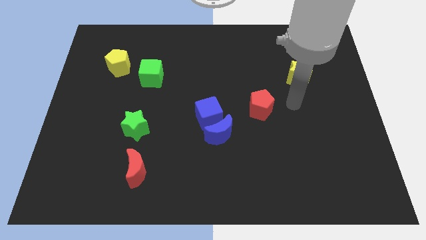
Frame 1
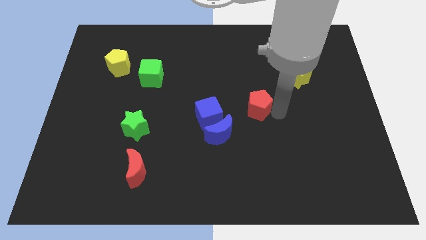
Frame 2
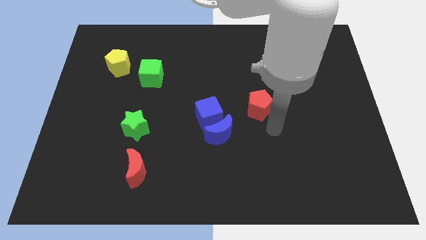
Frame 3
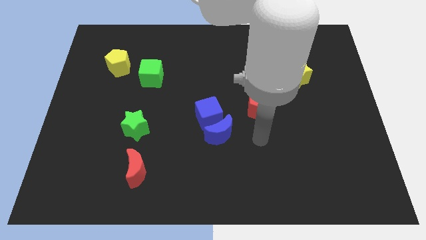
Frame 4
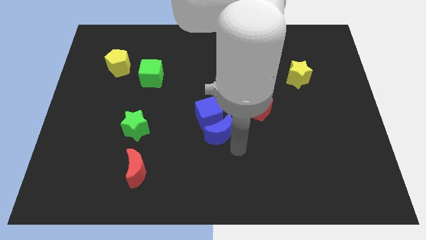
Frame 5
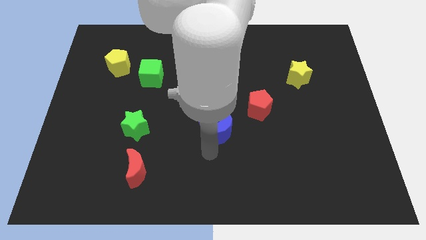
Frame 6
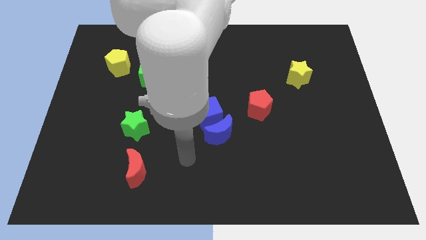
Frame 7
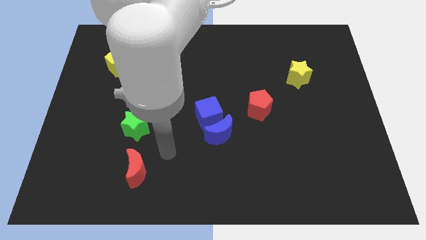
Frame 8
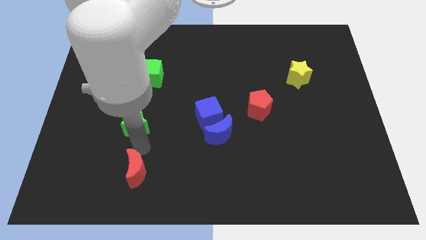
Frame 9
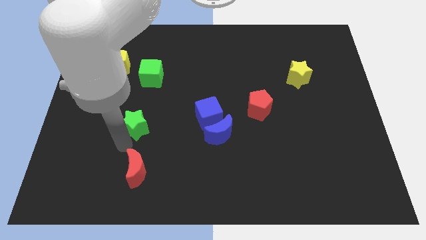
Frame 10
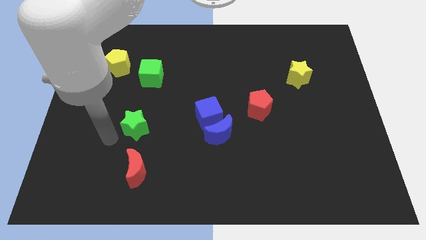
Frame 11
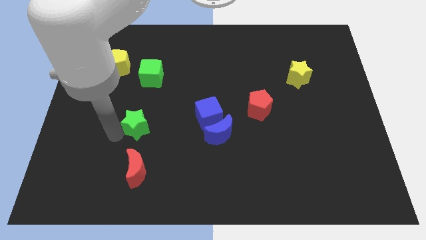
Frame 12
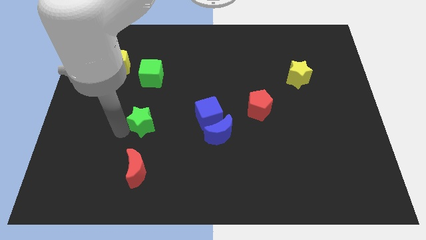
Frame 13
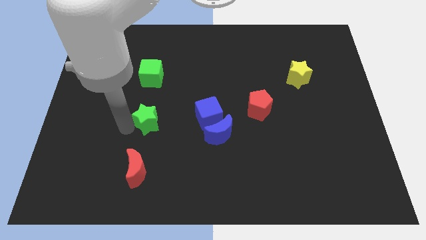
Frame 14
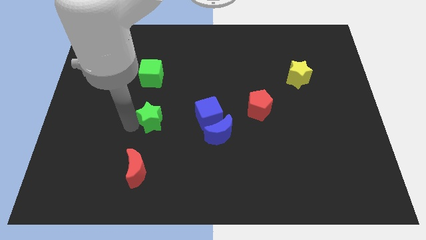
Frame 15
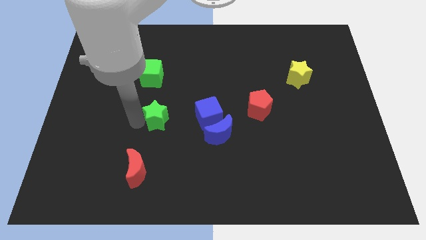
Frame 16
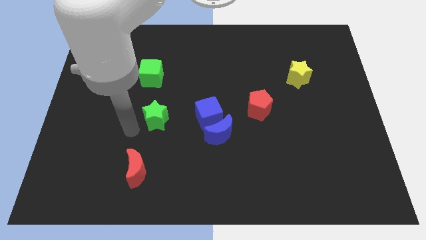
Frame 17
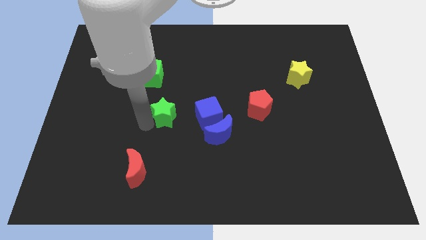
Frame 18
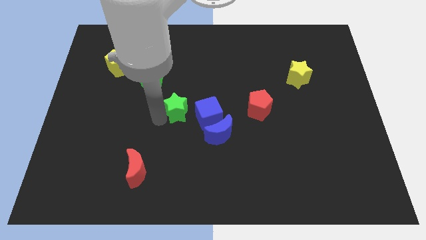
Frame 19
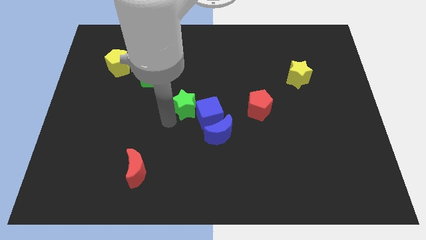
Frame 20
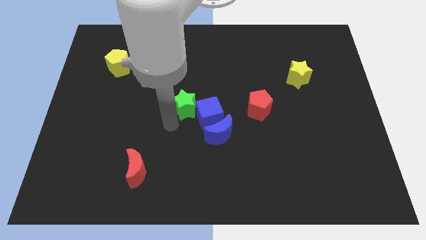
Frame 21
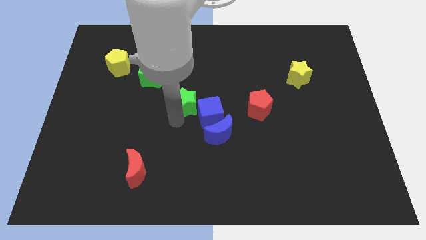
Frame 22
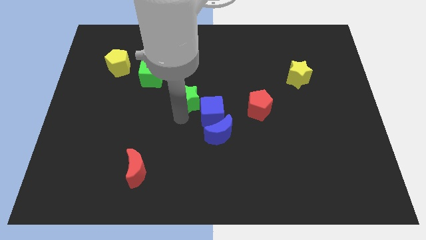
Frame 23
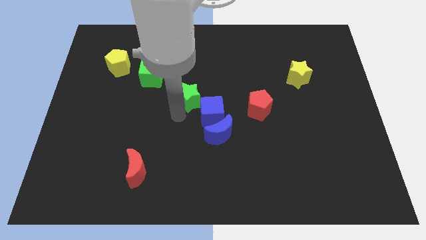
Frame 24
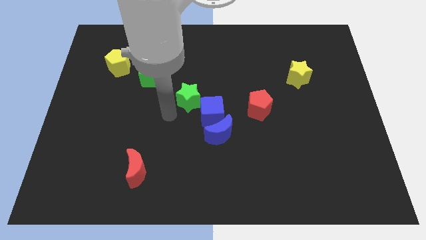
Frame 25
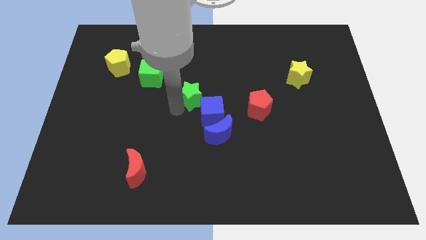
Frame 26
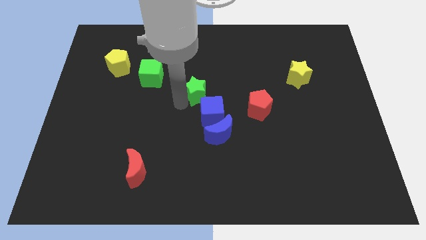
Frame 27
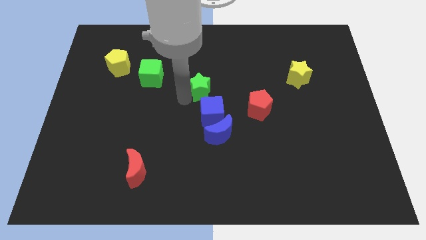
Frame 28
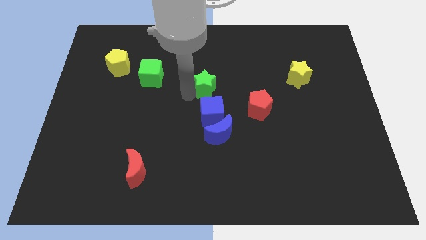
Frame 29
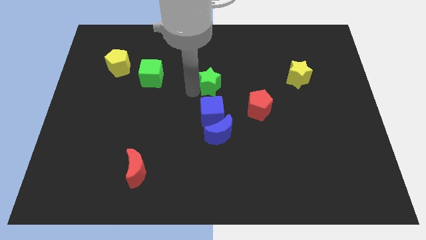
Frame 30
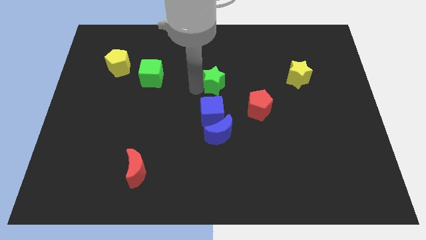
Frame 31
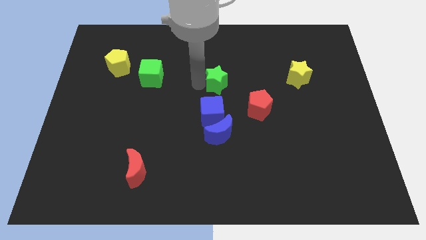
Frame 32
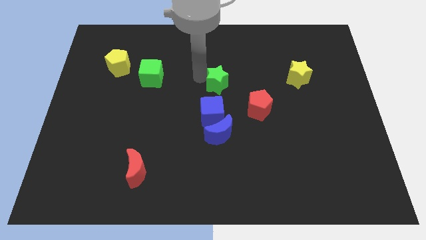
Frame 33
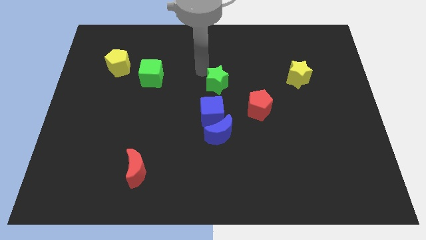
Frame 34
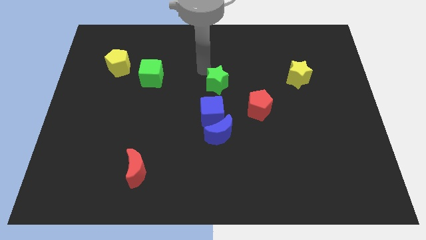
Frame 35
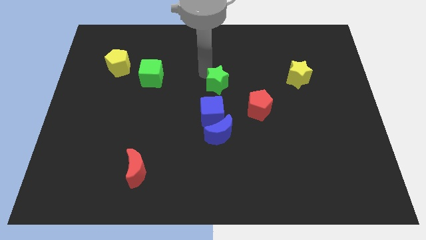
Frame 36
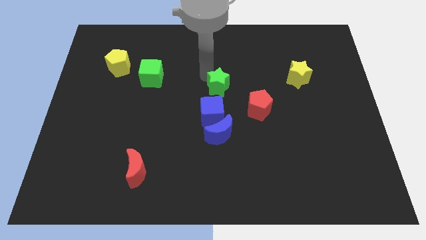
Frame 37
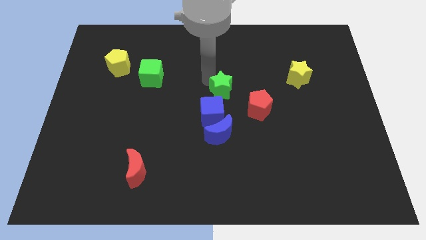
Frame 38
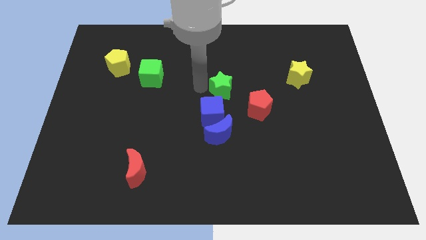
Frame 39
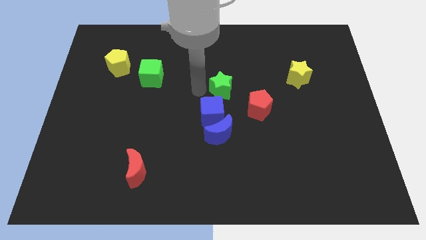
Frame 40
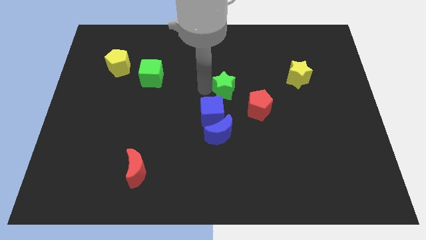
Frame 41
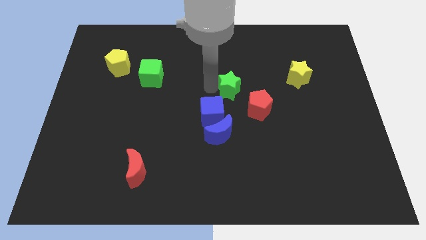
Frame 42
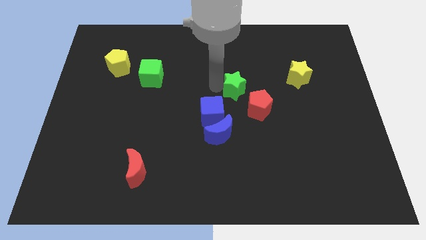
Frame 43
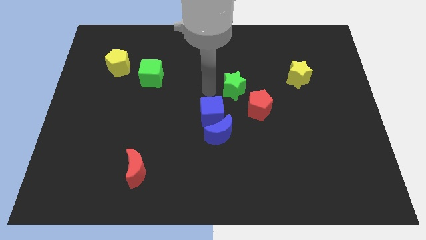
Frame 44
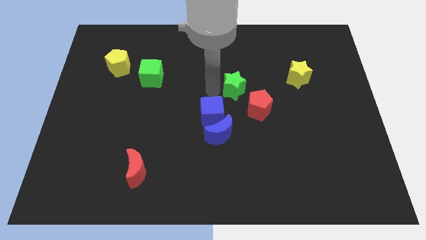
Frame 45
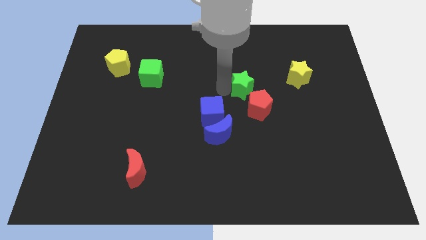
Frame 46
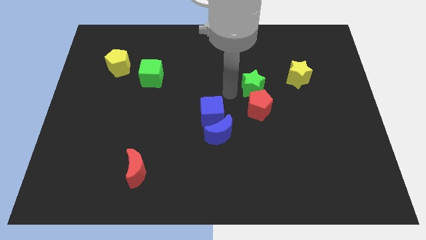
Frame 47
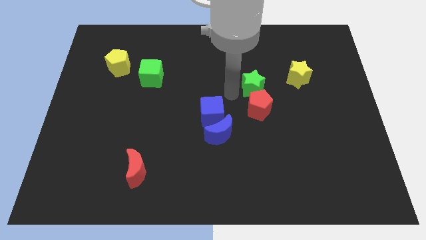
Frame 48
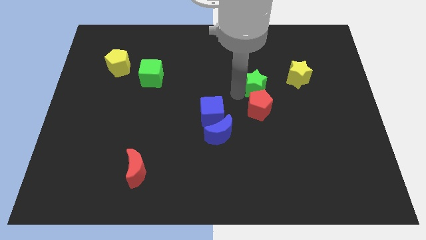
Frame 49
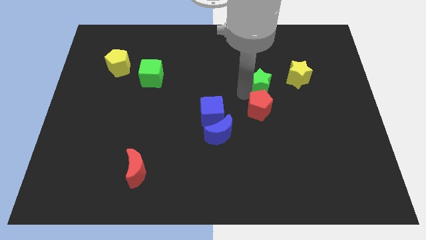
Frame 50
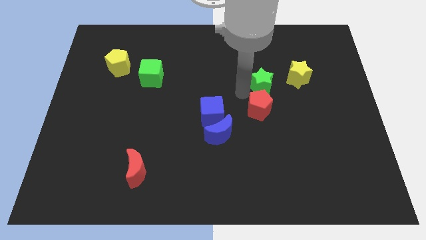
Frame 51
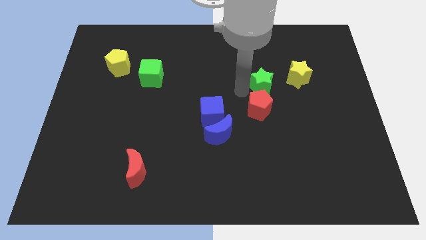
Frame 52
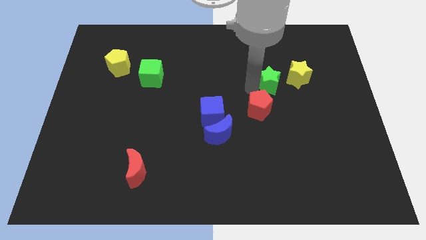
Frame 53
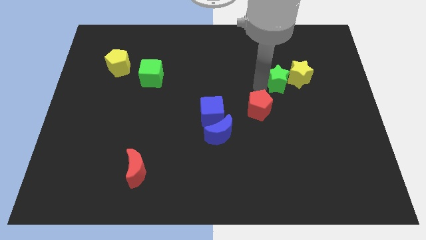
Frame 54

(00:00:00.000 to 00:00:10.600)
push the green star close to the yellow star

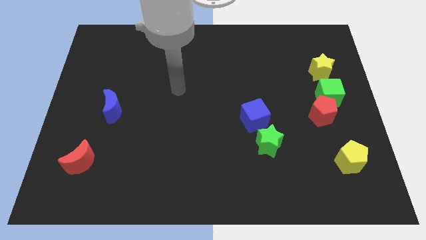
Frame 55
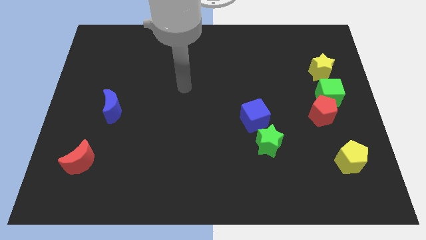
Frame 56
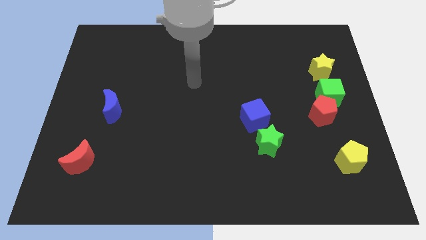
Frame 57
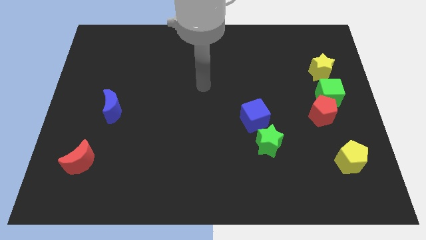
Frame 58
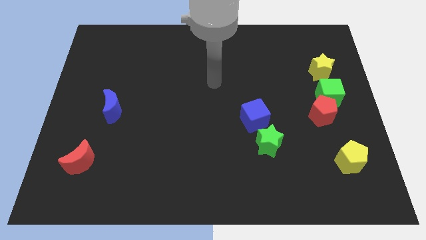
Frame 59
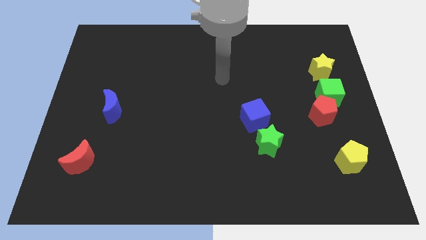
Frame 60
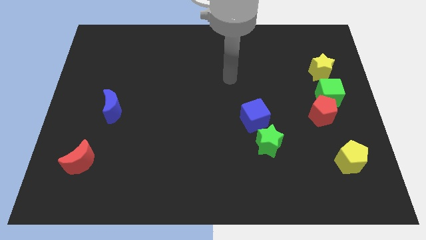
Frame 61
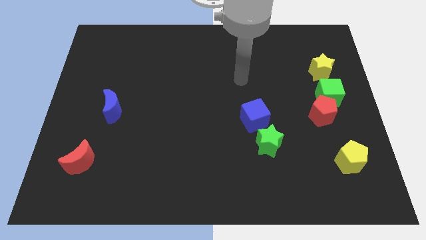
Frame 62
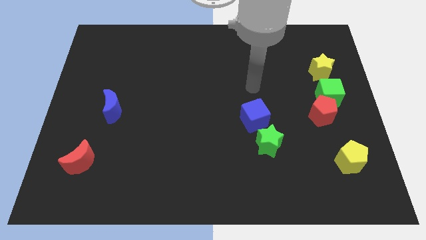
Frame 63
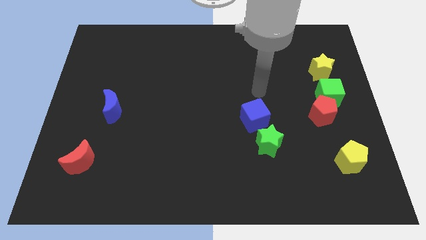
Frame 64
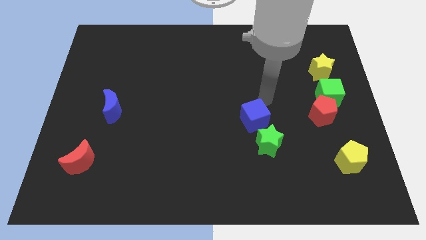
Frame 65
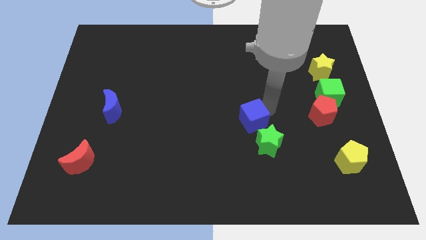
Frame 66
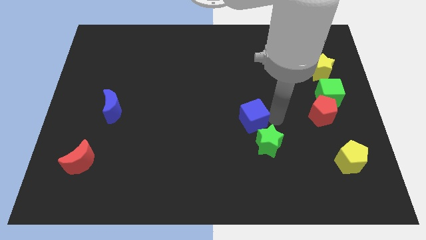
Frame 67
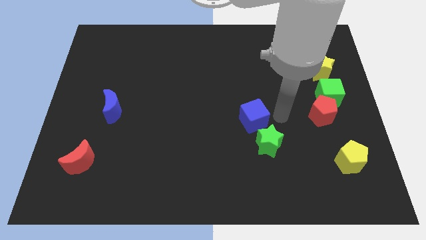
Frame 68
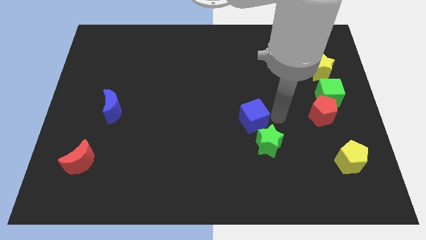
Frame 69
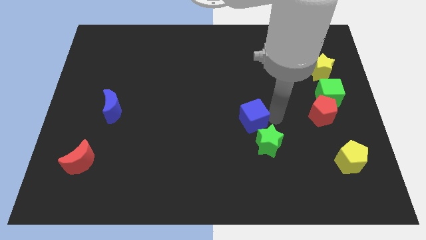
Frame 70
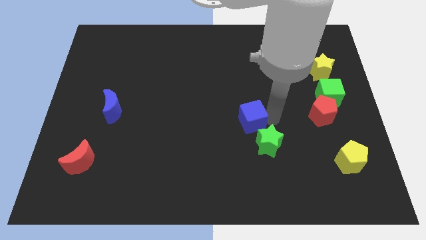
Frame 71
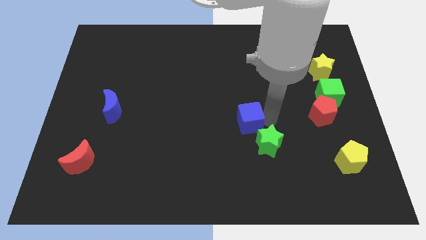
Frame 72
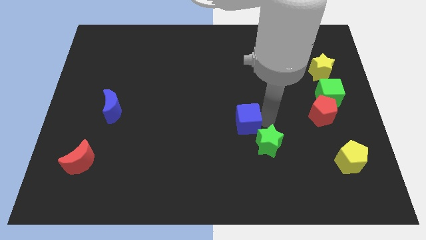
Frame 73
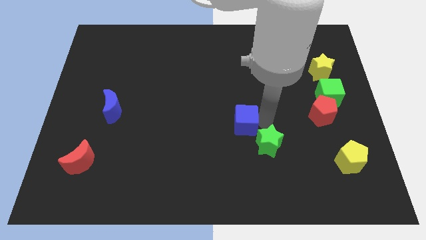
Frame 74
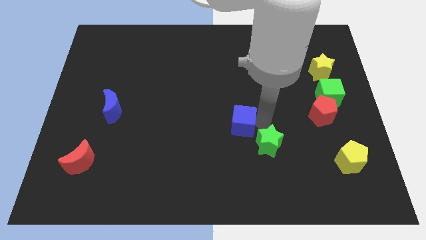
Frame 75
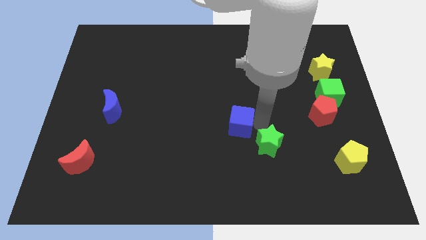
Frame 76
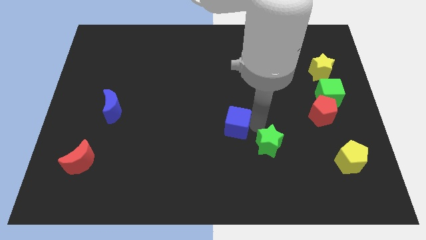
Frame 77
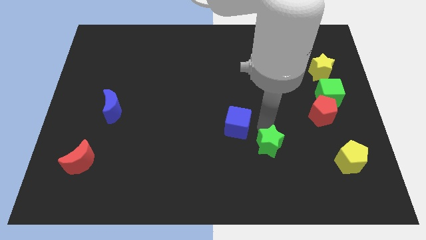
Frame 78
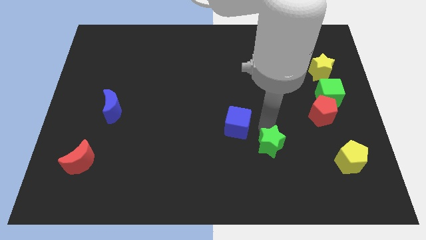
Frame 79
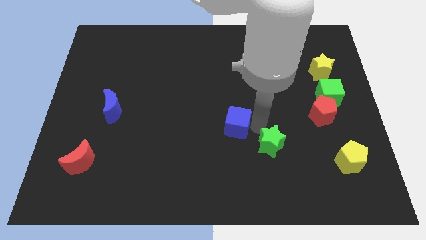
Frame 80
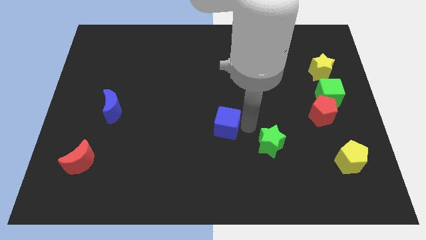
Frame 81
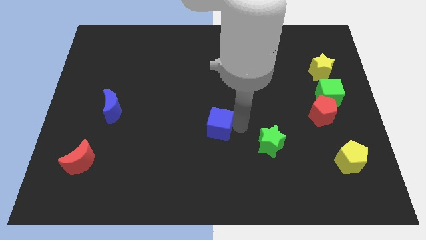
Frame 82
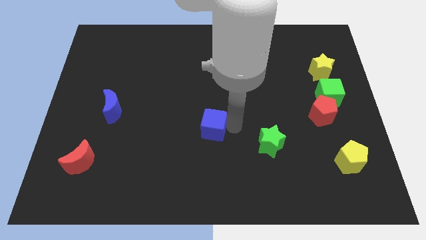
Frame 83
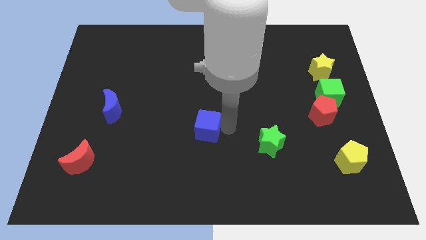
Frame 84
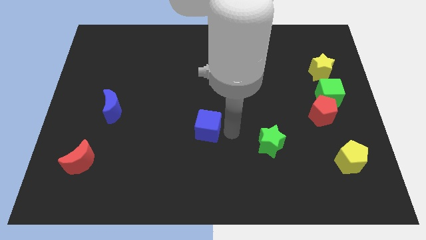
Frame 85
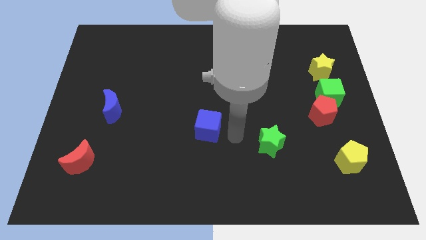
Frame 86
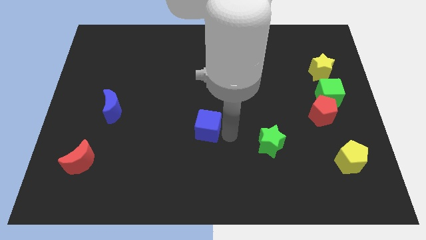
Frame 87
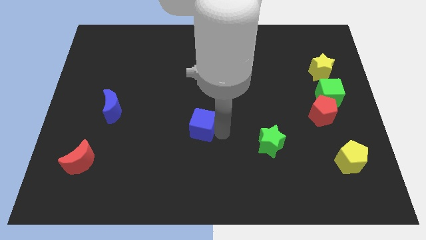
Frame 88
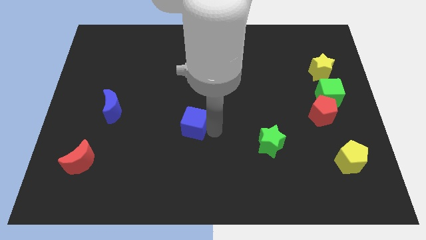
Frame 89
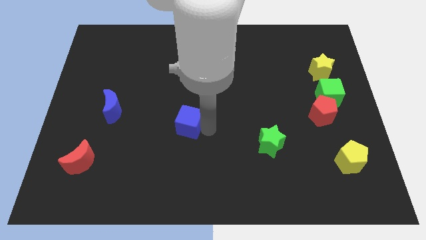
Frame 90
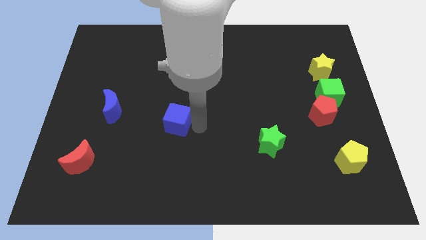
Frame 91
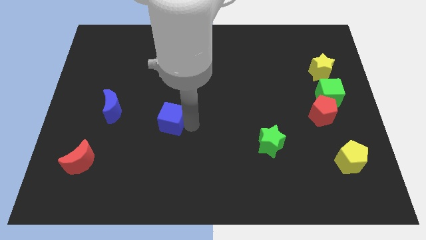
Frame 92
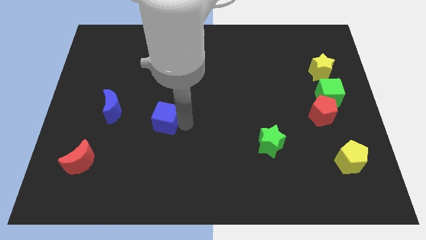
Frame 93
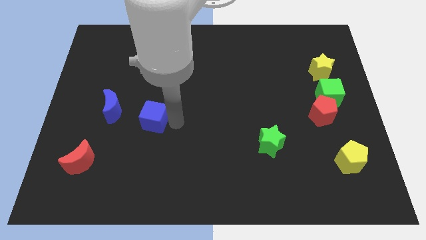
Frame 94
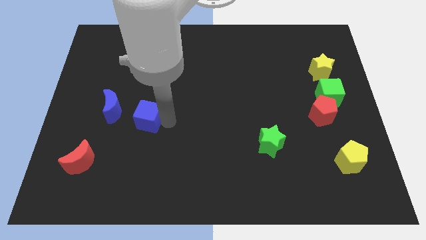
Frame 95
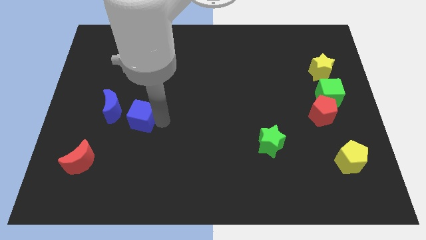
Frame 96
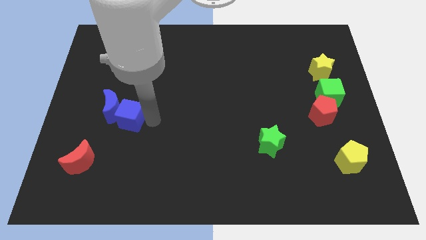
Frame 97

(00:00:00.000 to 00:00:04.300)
slide the blue cube next to the blue moon
